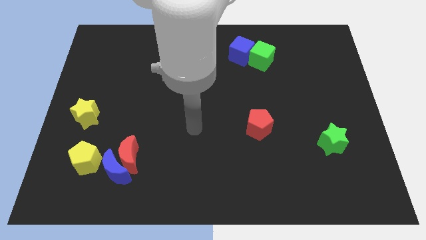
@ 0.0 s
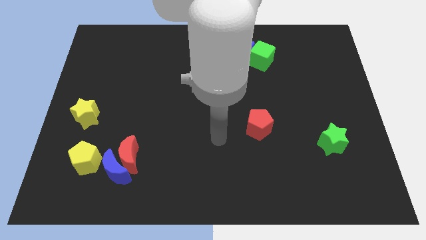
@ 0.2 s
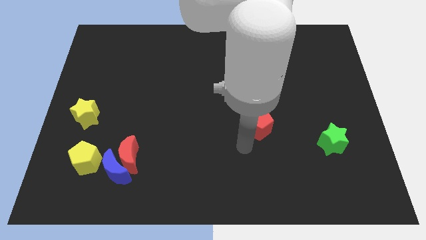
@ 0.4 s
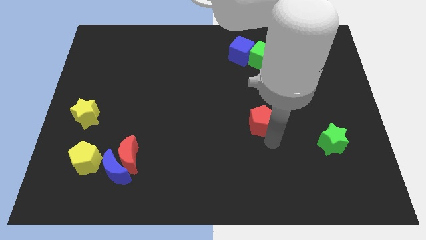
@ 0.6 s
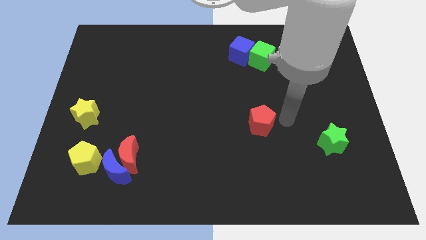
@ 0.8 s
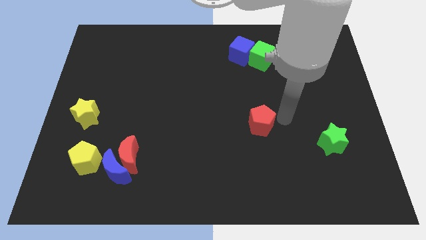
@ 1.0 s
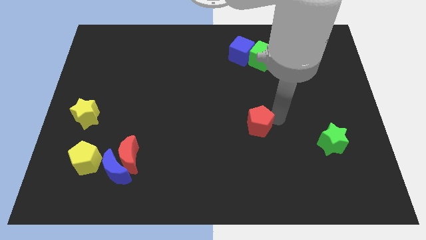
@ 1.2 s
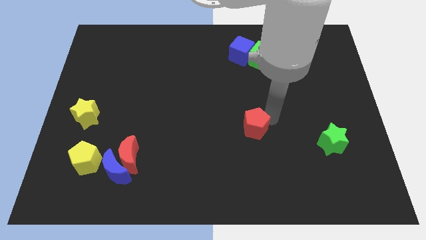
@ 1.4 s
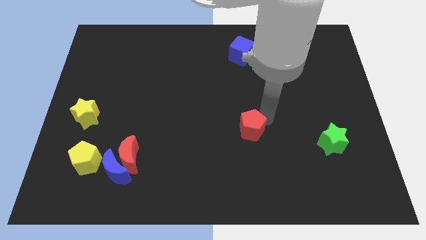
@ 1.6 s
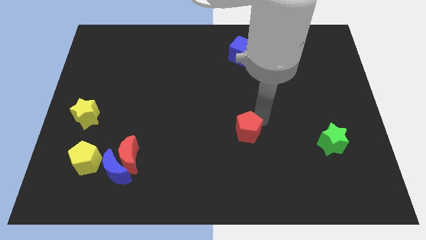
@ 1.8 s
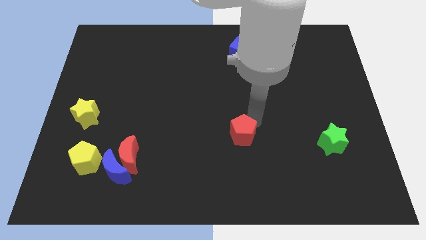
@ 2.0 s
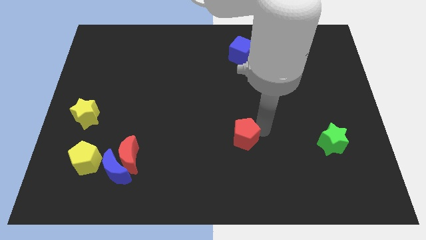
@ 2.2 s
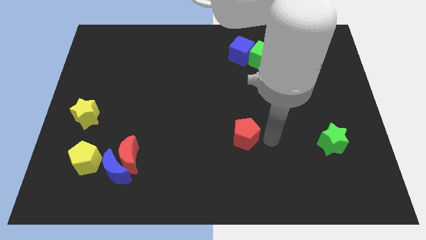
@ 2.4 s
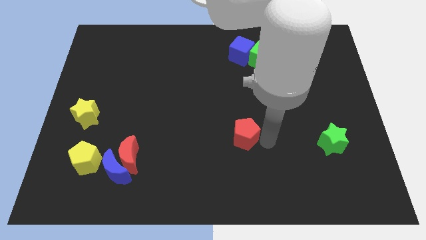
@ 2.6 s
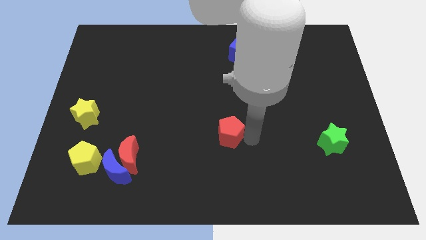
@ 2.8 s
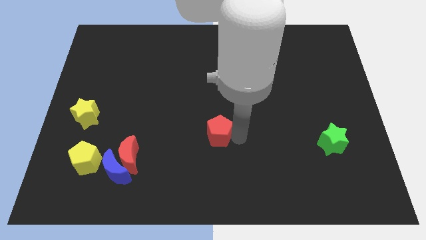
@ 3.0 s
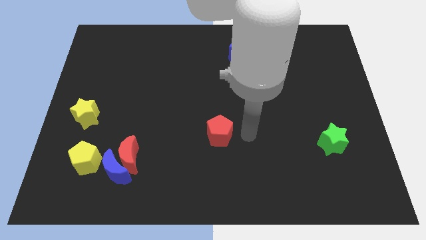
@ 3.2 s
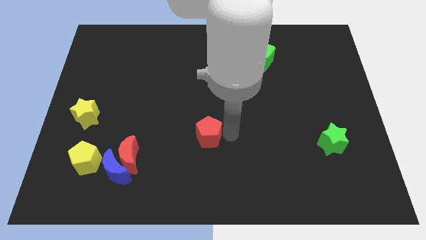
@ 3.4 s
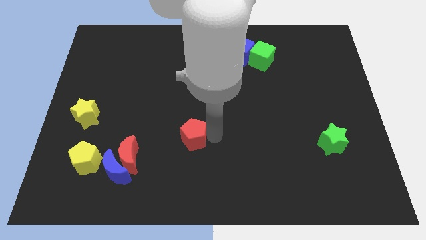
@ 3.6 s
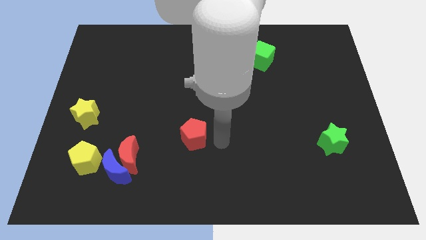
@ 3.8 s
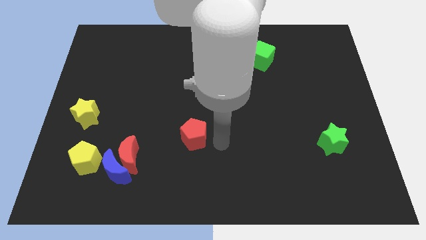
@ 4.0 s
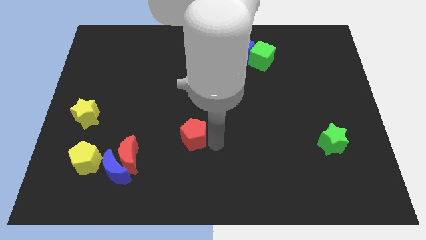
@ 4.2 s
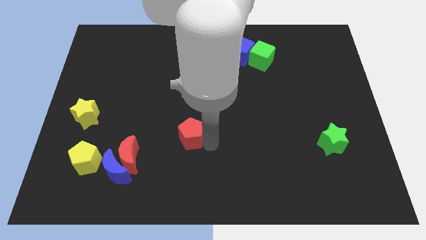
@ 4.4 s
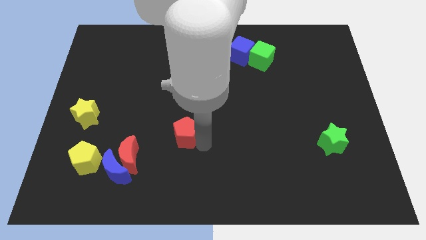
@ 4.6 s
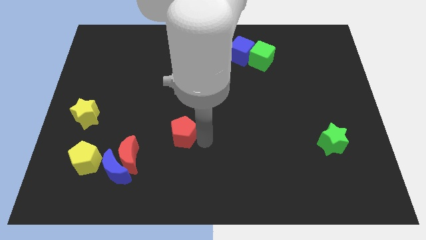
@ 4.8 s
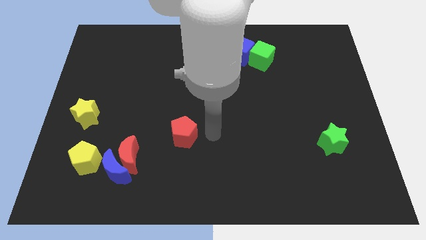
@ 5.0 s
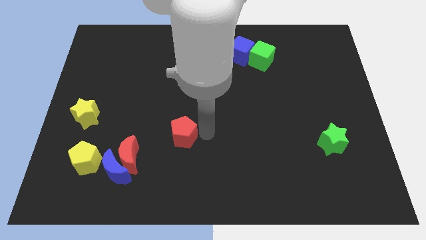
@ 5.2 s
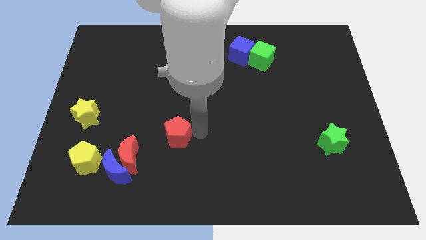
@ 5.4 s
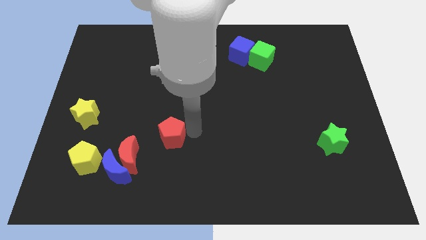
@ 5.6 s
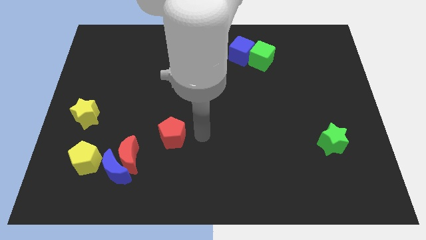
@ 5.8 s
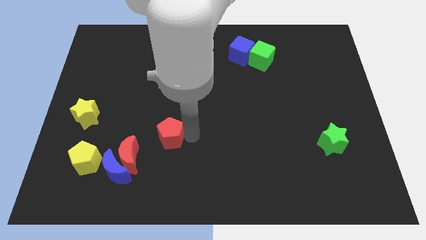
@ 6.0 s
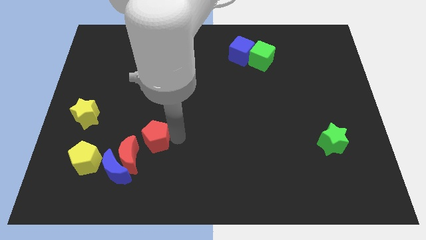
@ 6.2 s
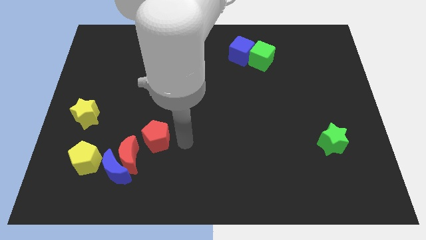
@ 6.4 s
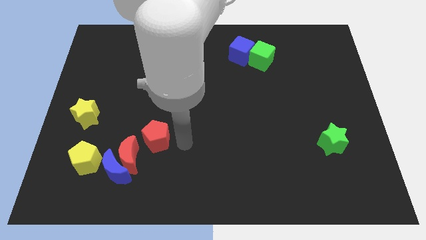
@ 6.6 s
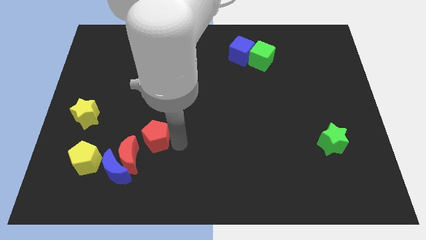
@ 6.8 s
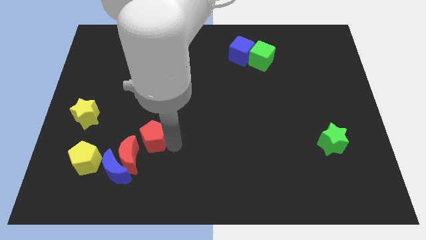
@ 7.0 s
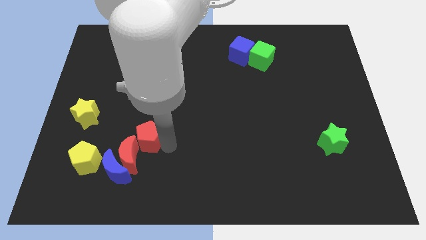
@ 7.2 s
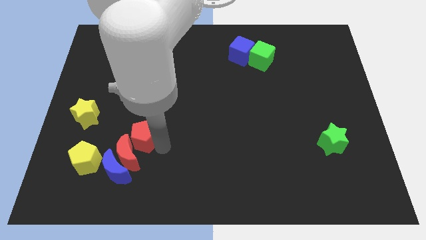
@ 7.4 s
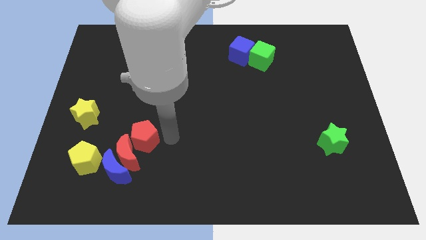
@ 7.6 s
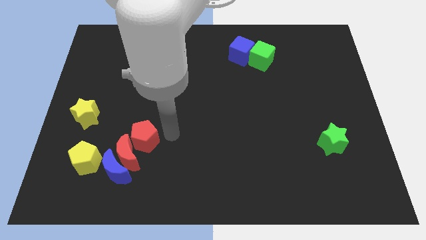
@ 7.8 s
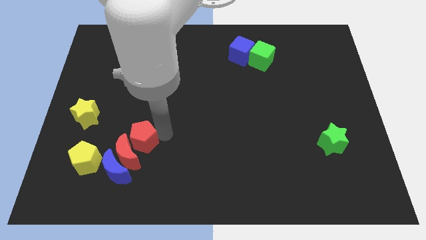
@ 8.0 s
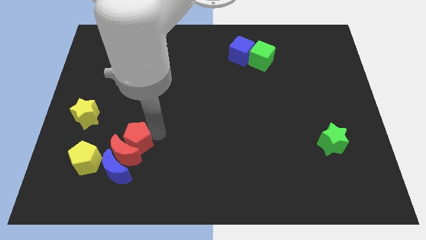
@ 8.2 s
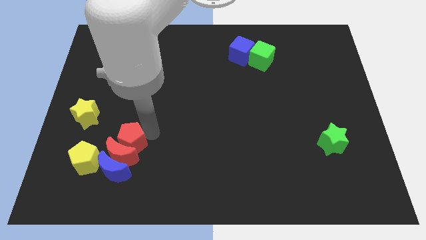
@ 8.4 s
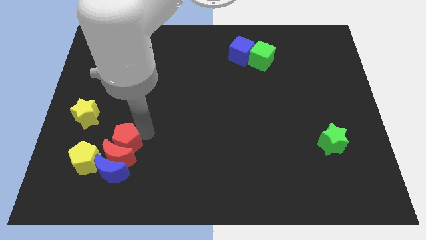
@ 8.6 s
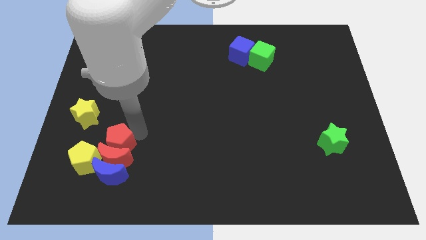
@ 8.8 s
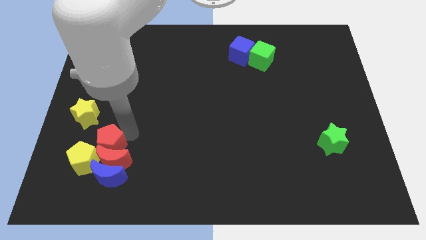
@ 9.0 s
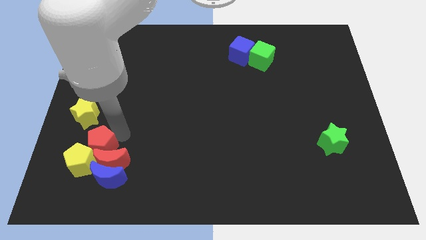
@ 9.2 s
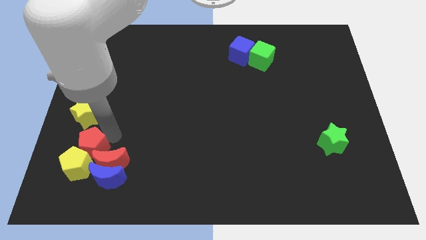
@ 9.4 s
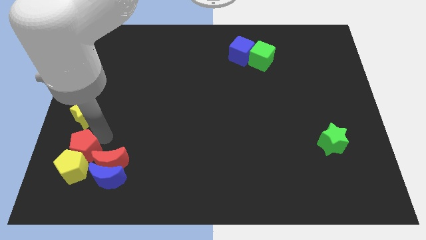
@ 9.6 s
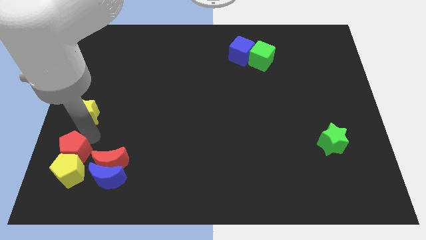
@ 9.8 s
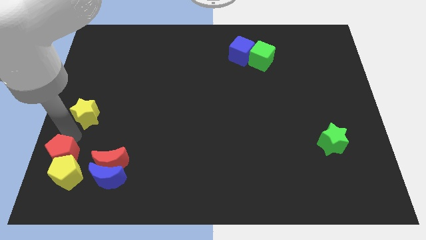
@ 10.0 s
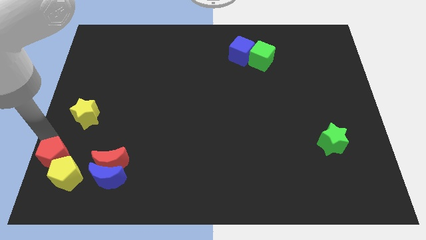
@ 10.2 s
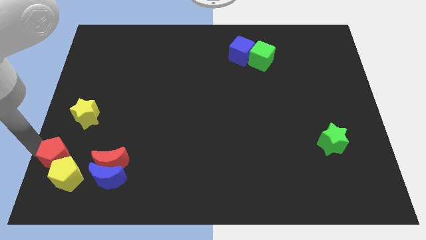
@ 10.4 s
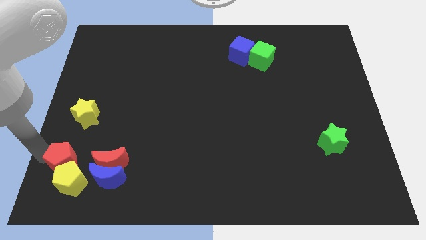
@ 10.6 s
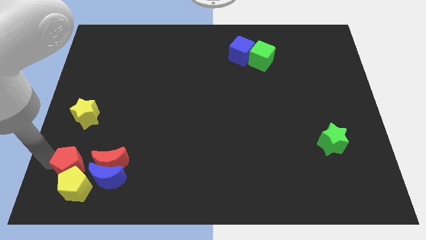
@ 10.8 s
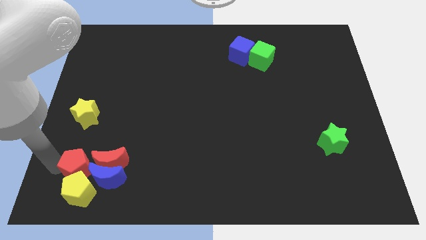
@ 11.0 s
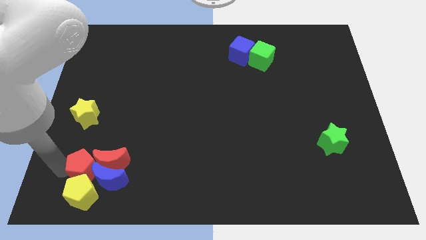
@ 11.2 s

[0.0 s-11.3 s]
slide the red pentagon towards the blue moon

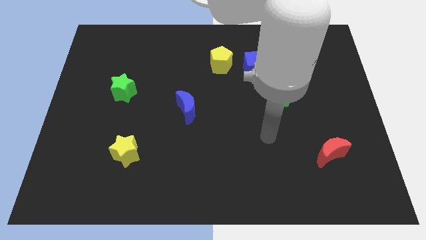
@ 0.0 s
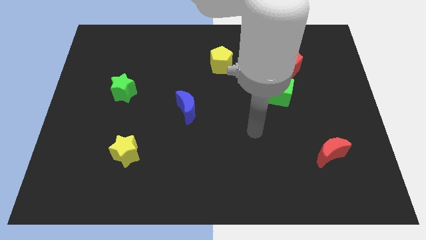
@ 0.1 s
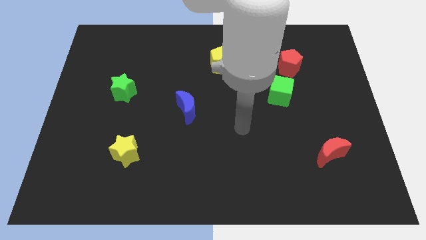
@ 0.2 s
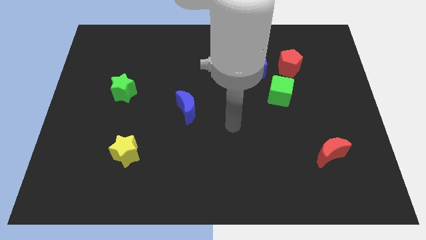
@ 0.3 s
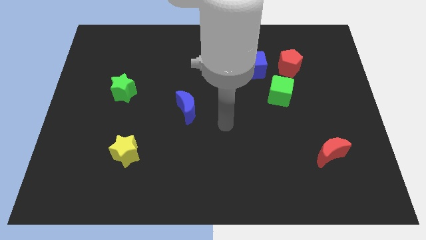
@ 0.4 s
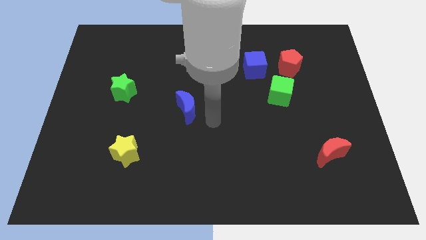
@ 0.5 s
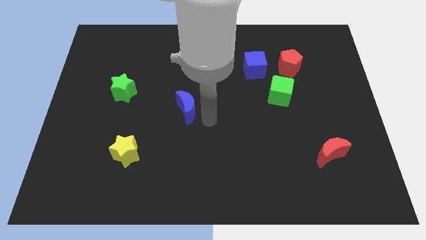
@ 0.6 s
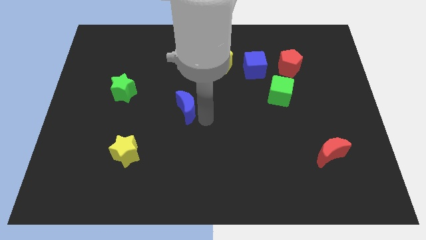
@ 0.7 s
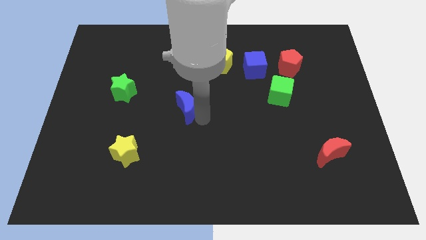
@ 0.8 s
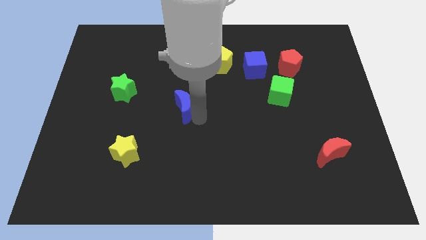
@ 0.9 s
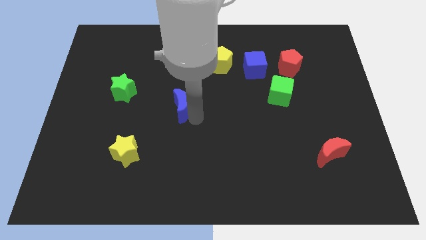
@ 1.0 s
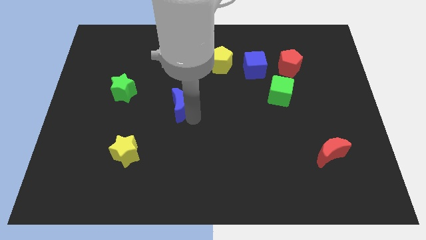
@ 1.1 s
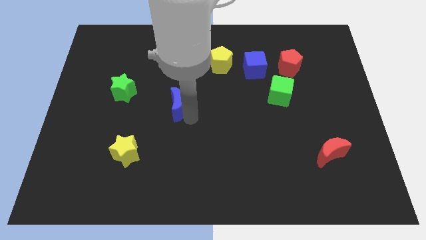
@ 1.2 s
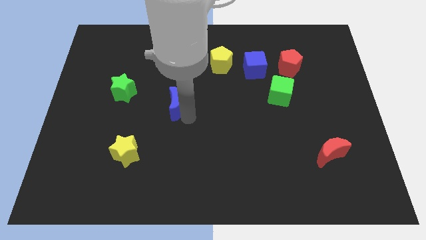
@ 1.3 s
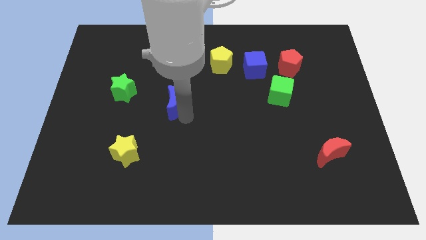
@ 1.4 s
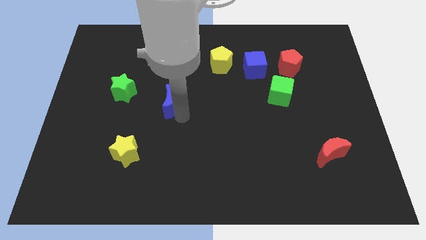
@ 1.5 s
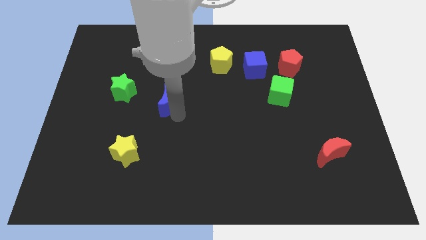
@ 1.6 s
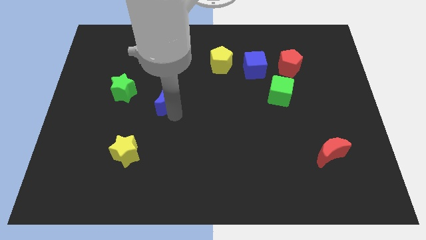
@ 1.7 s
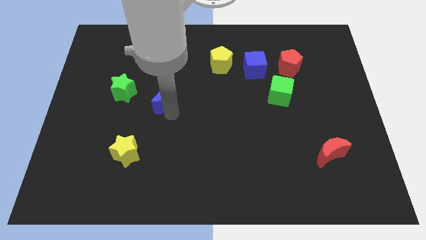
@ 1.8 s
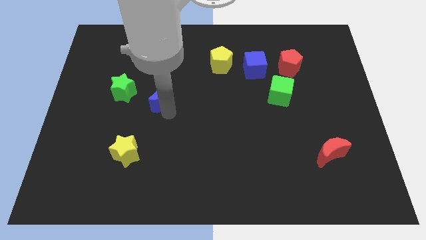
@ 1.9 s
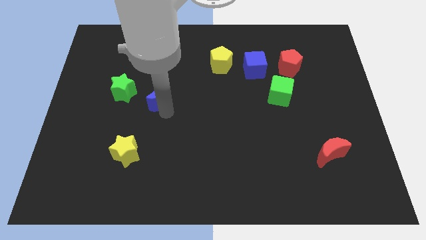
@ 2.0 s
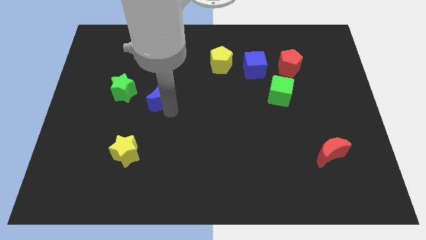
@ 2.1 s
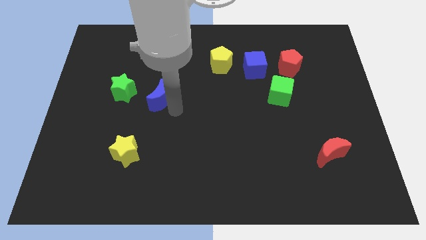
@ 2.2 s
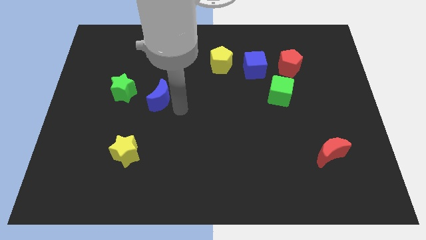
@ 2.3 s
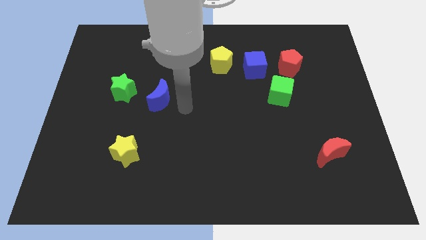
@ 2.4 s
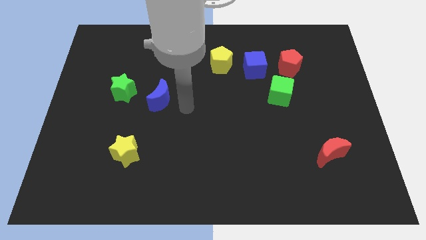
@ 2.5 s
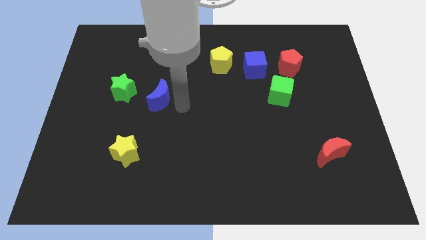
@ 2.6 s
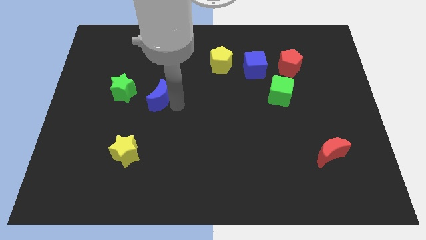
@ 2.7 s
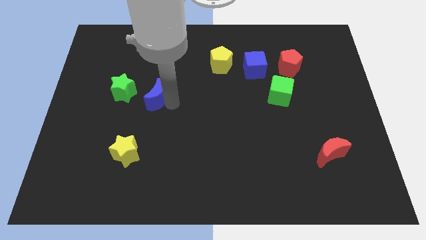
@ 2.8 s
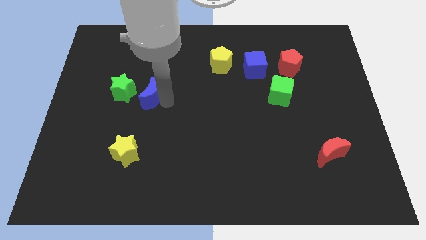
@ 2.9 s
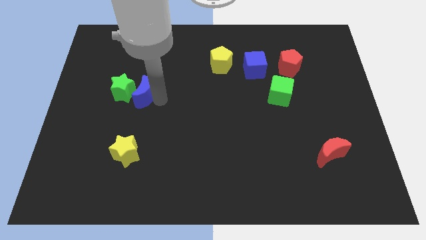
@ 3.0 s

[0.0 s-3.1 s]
slide the blue moon close to the green star
